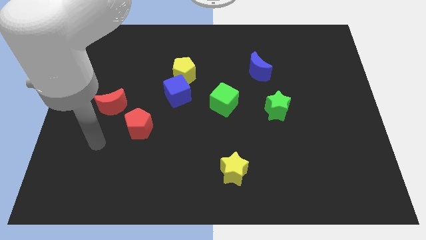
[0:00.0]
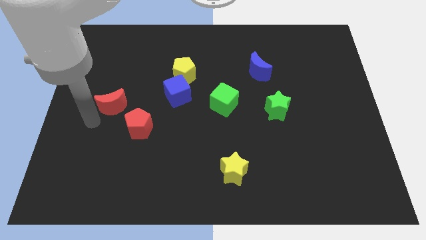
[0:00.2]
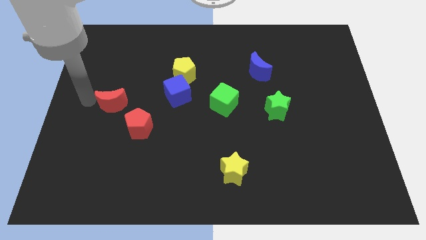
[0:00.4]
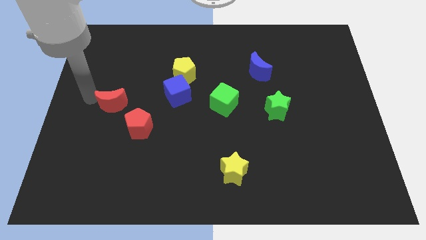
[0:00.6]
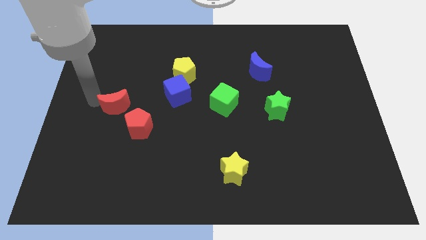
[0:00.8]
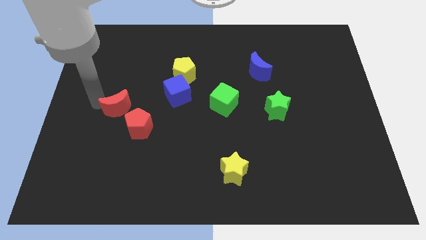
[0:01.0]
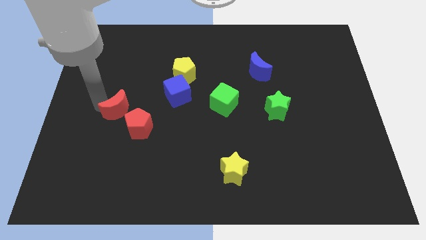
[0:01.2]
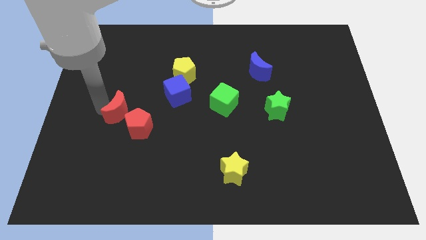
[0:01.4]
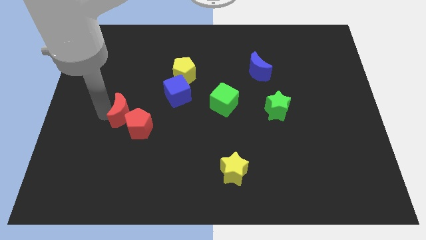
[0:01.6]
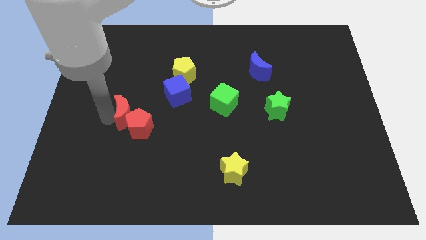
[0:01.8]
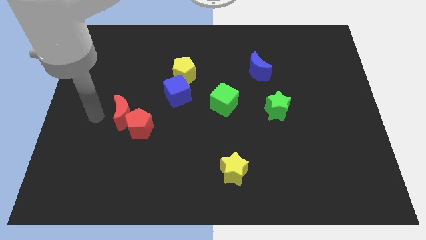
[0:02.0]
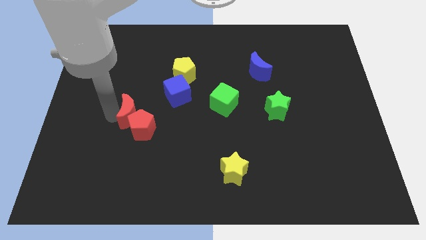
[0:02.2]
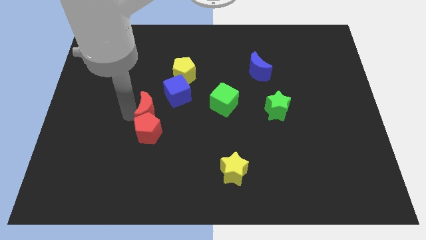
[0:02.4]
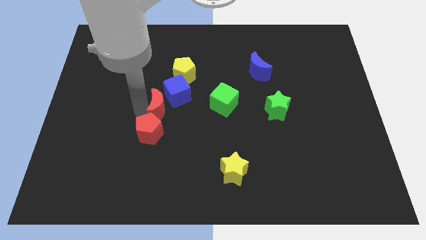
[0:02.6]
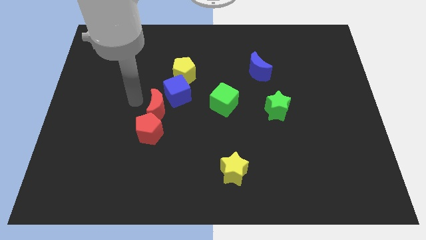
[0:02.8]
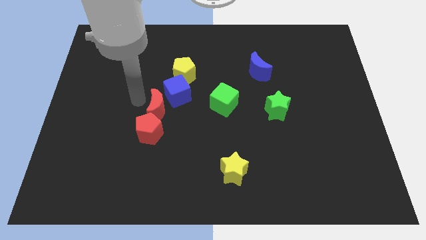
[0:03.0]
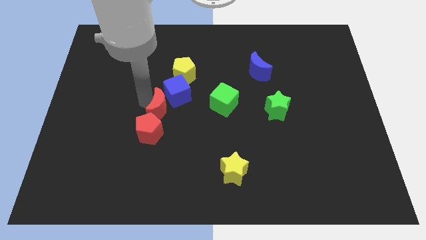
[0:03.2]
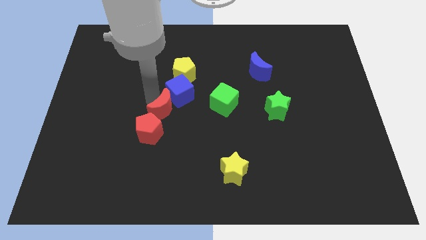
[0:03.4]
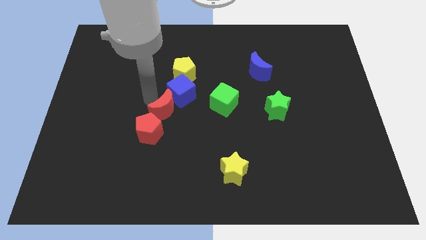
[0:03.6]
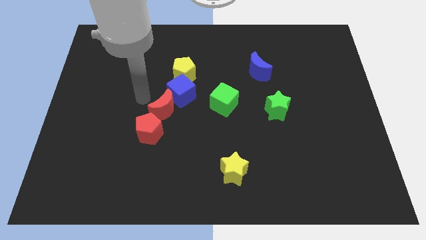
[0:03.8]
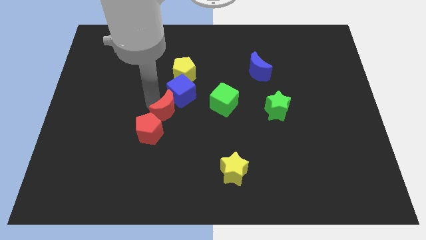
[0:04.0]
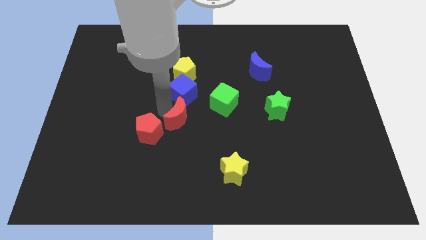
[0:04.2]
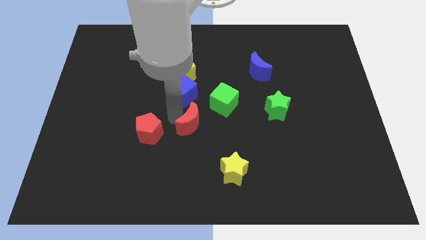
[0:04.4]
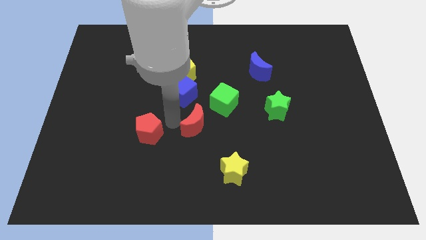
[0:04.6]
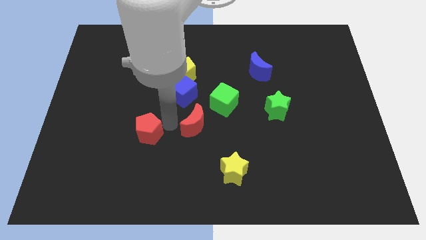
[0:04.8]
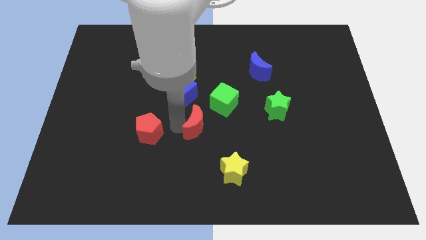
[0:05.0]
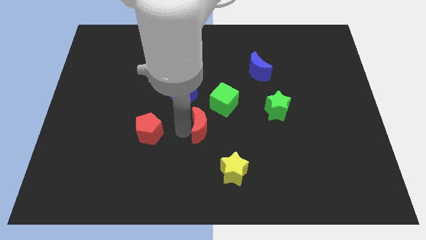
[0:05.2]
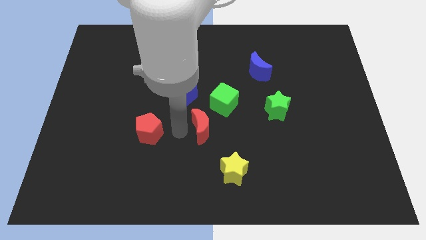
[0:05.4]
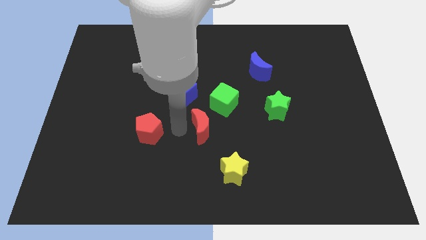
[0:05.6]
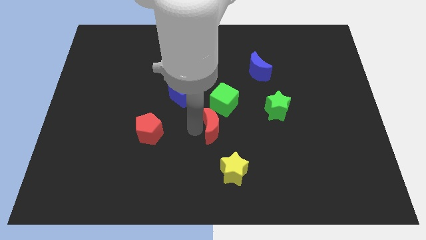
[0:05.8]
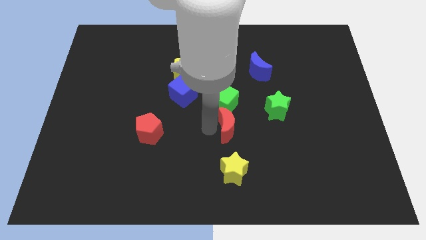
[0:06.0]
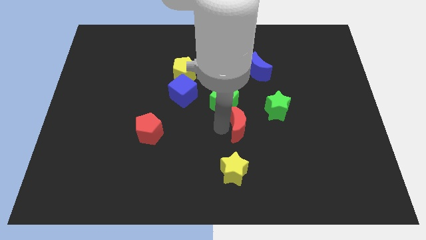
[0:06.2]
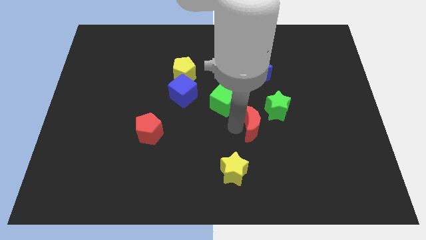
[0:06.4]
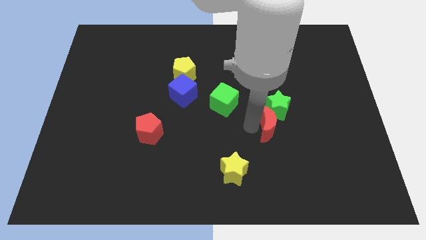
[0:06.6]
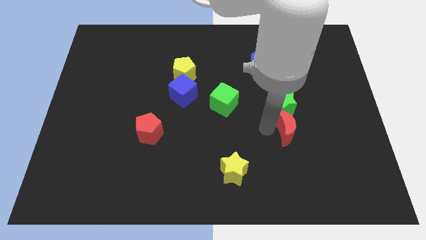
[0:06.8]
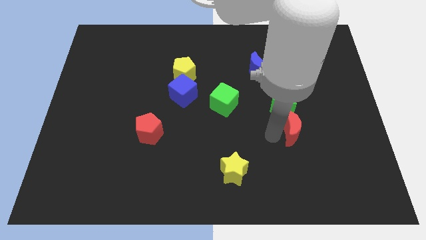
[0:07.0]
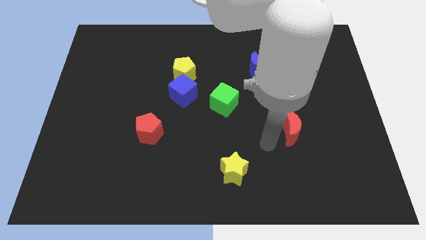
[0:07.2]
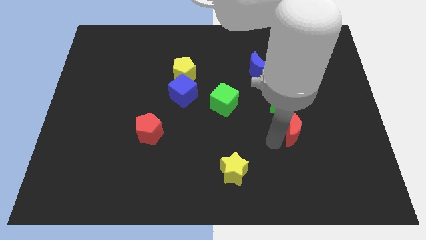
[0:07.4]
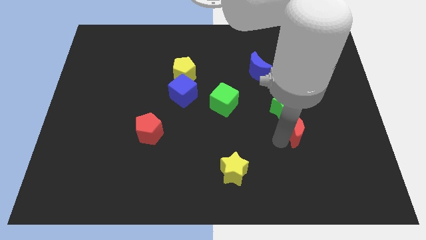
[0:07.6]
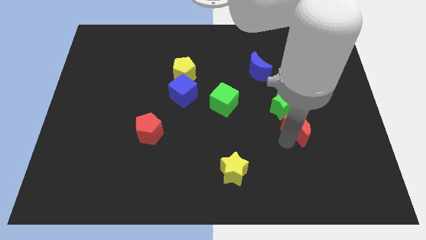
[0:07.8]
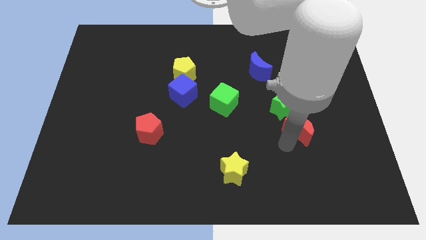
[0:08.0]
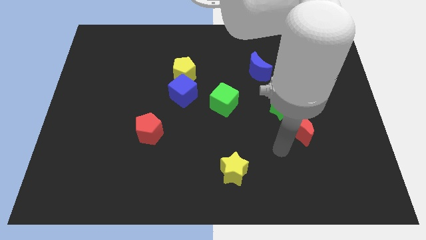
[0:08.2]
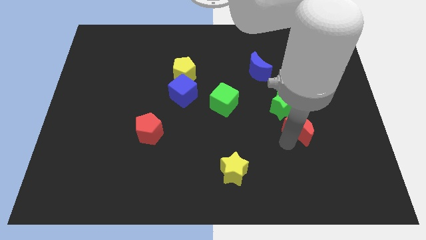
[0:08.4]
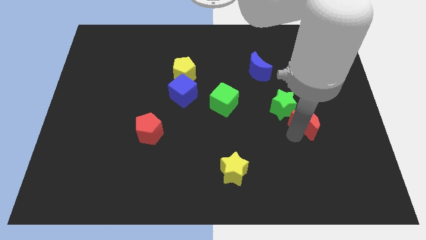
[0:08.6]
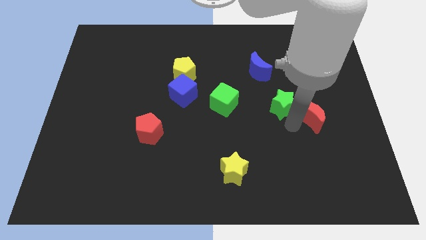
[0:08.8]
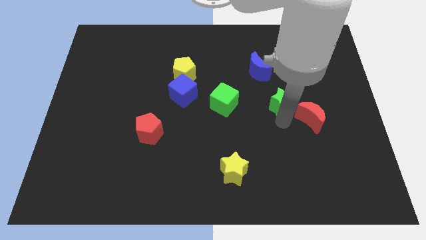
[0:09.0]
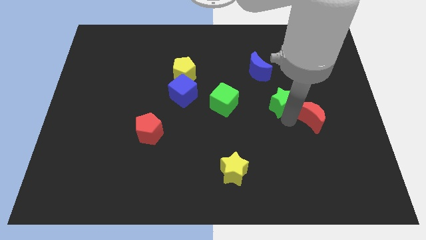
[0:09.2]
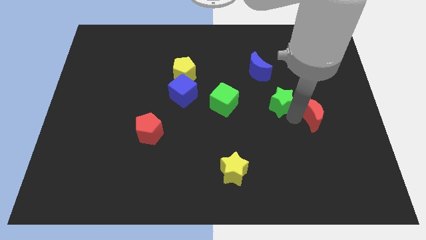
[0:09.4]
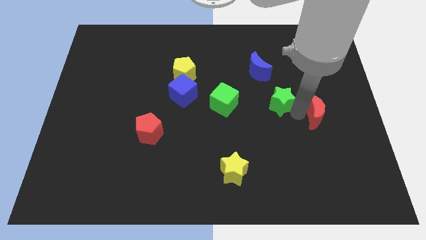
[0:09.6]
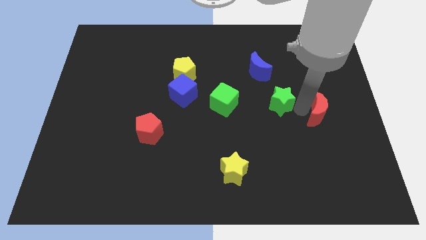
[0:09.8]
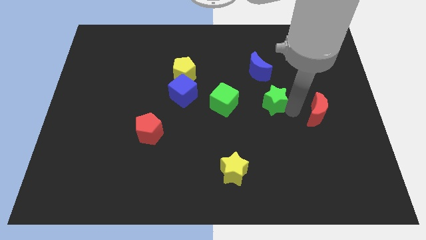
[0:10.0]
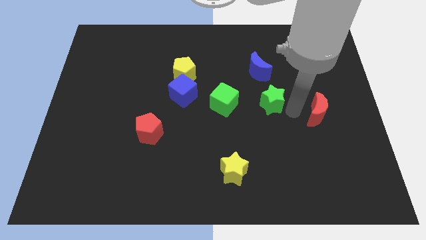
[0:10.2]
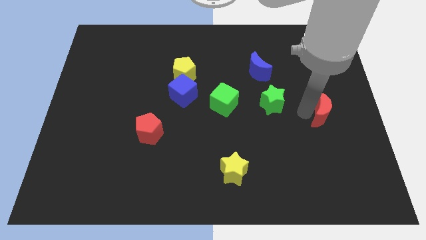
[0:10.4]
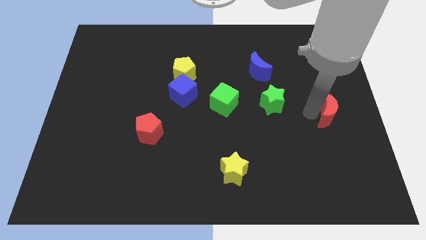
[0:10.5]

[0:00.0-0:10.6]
push the red moon to the right side

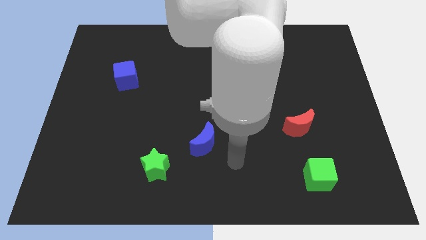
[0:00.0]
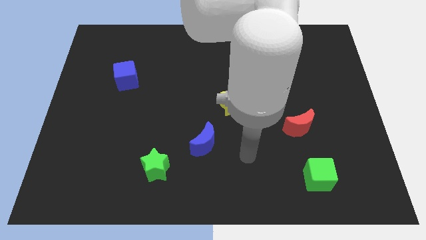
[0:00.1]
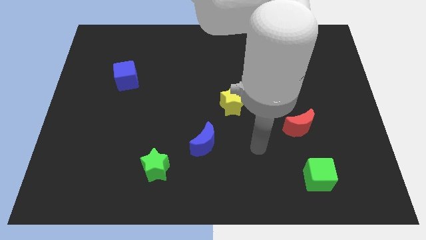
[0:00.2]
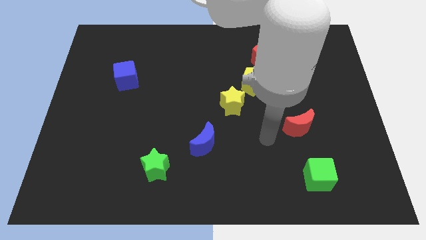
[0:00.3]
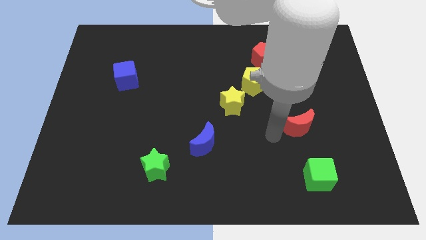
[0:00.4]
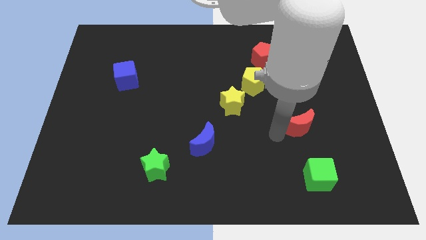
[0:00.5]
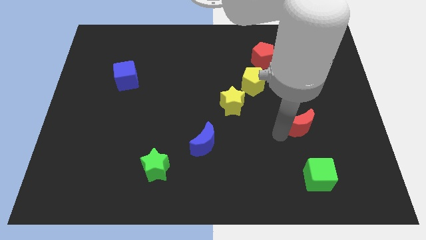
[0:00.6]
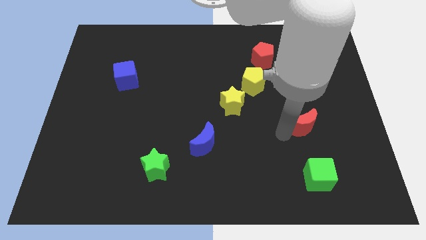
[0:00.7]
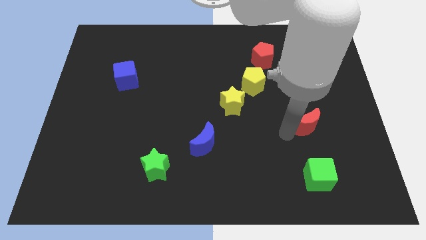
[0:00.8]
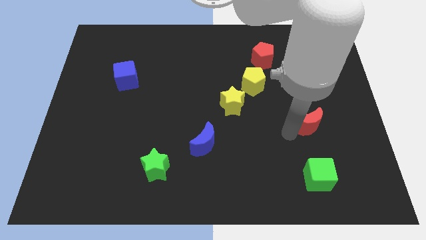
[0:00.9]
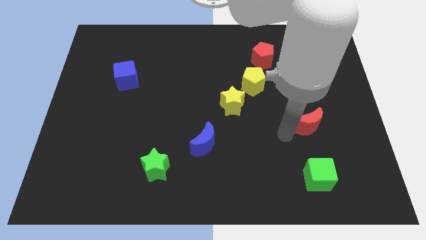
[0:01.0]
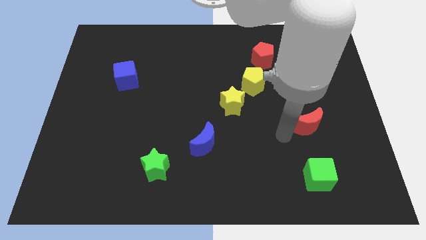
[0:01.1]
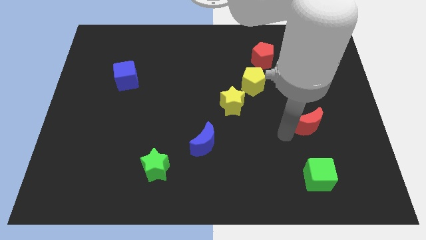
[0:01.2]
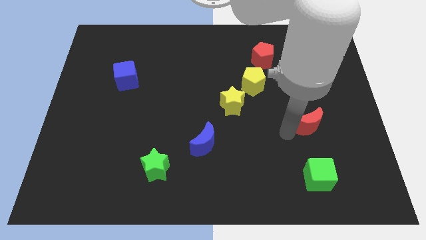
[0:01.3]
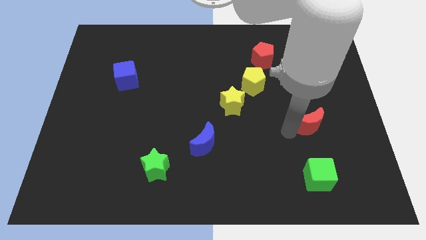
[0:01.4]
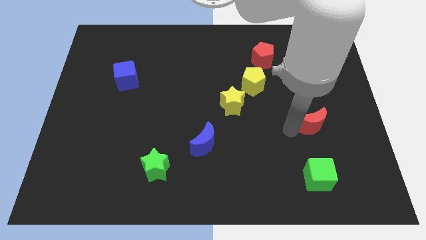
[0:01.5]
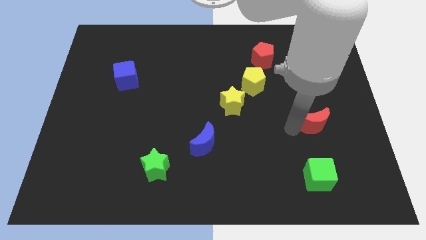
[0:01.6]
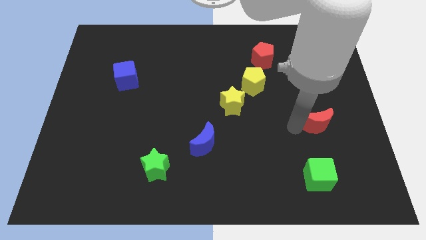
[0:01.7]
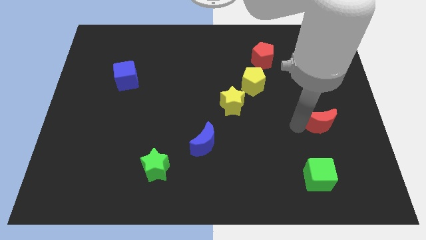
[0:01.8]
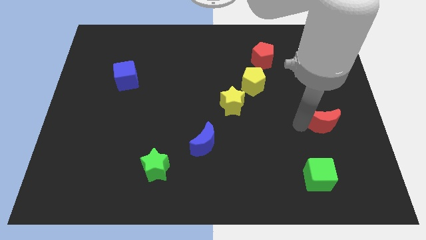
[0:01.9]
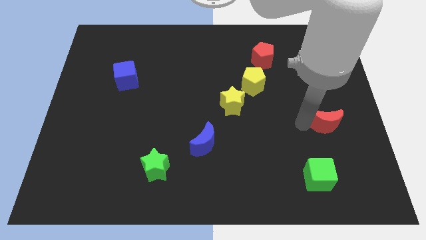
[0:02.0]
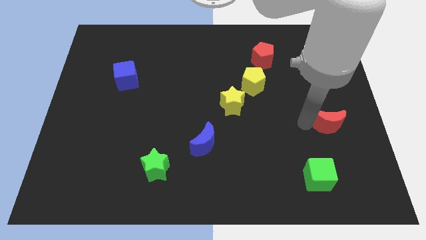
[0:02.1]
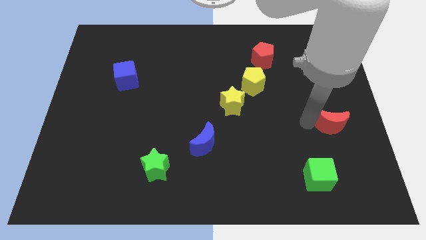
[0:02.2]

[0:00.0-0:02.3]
push the red moon to the center right

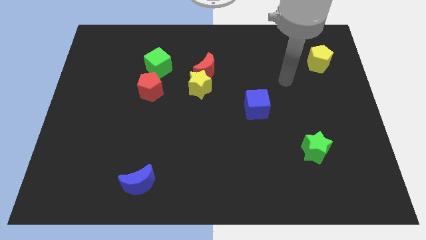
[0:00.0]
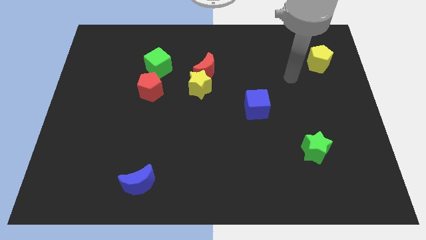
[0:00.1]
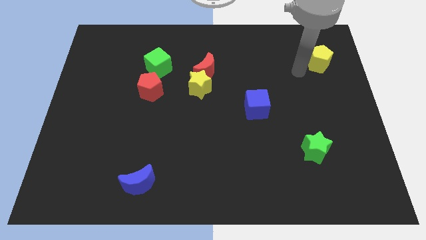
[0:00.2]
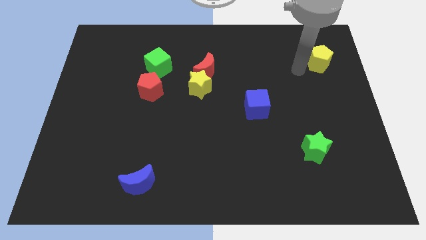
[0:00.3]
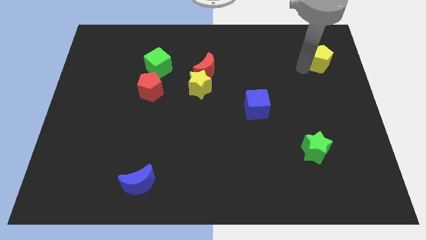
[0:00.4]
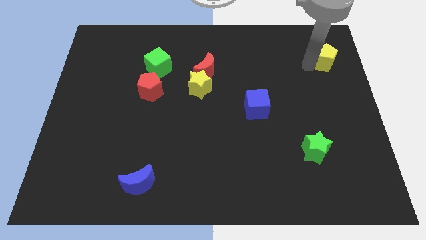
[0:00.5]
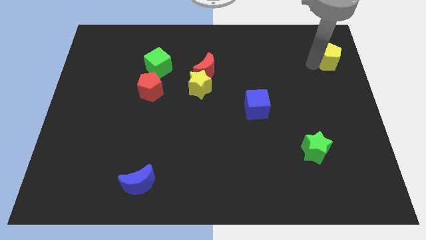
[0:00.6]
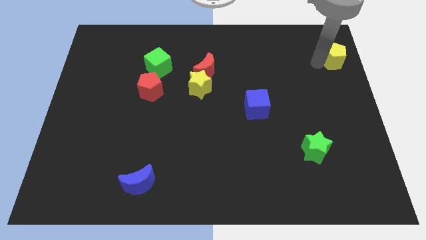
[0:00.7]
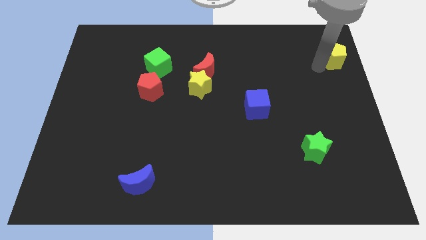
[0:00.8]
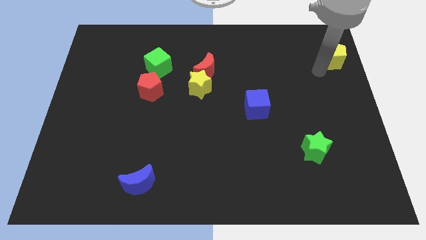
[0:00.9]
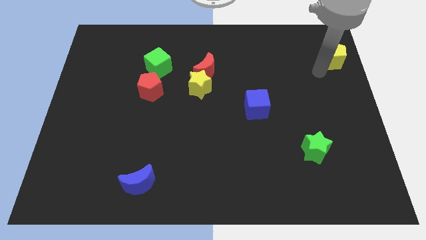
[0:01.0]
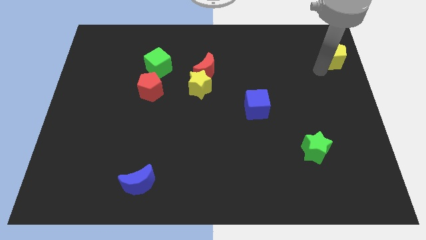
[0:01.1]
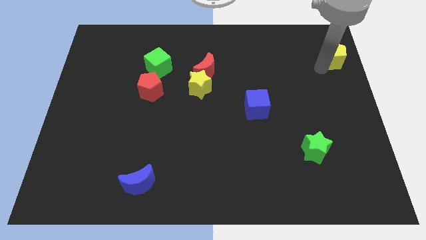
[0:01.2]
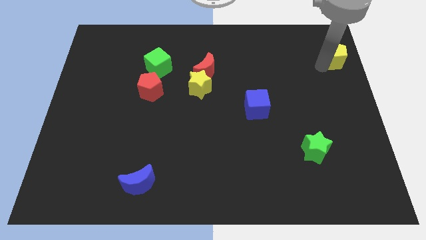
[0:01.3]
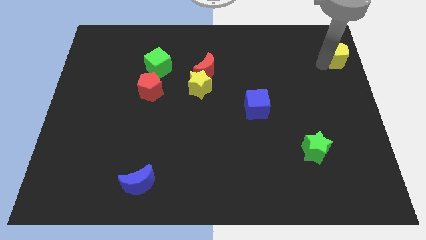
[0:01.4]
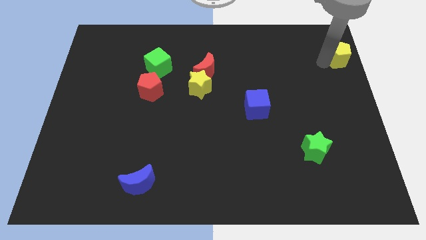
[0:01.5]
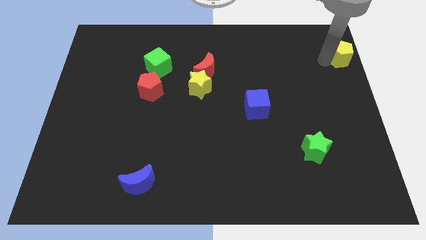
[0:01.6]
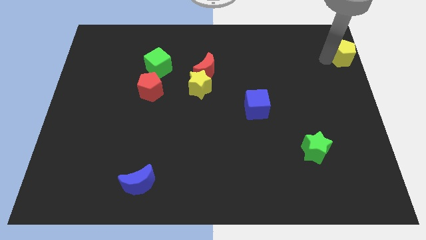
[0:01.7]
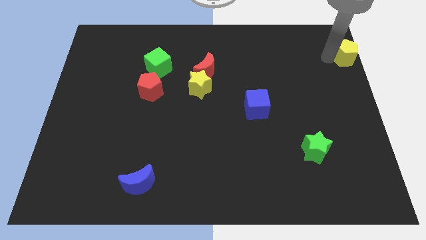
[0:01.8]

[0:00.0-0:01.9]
put the yellow pentagon to the top right
